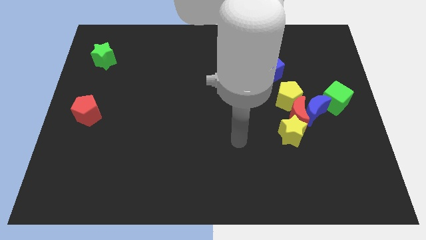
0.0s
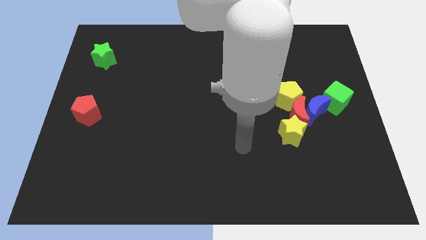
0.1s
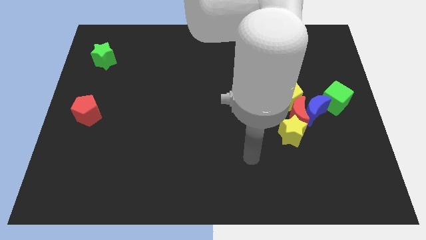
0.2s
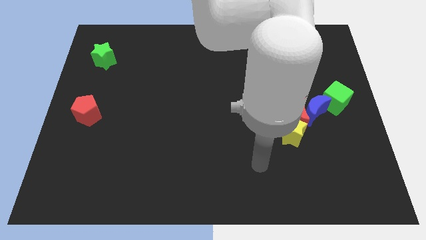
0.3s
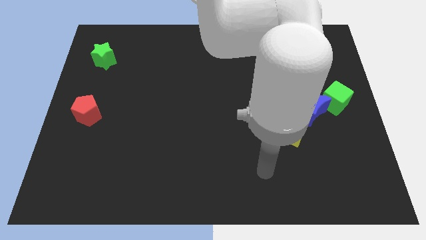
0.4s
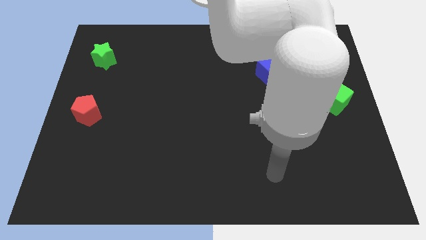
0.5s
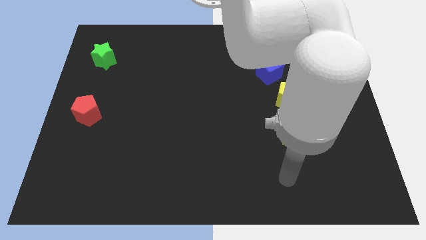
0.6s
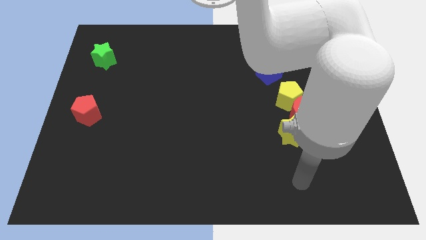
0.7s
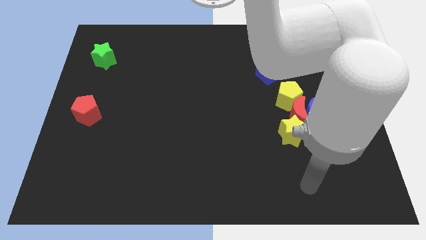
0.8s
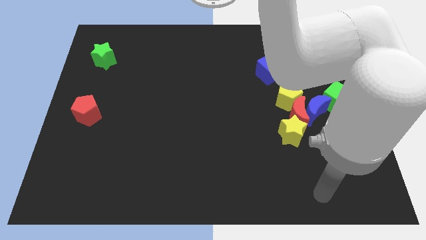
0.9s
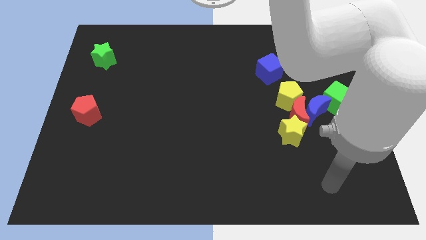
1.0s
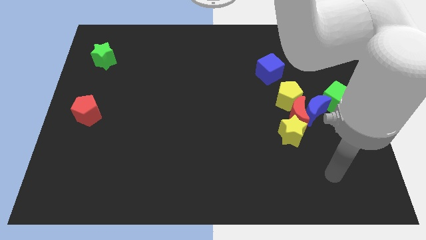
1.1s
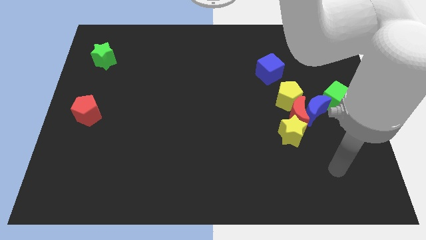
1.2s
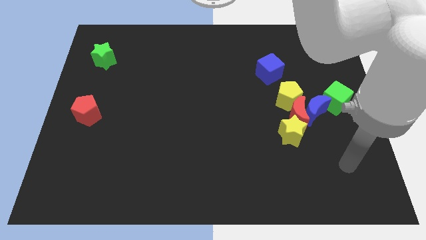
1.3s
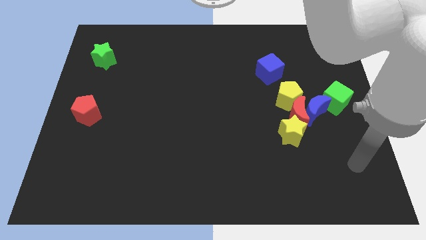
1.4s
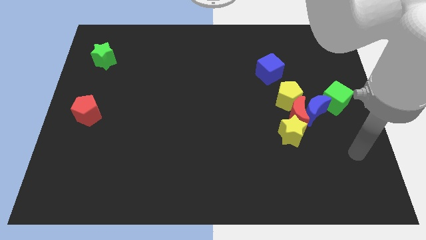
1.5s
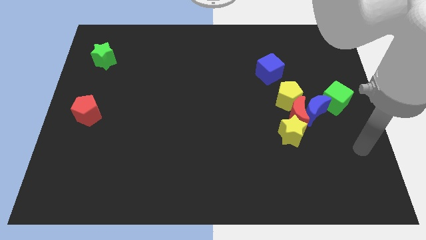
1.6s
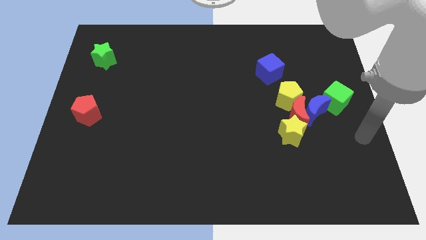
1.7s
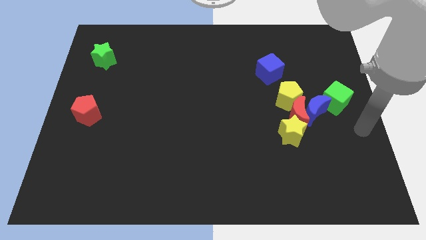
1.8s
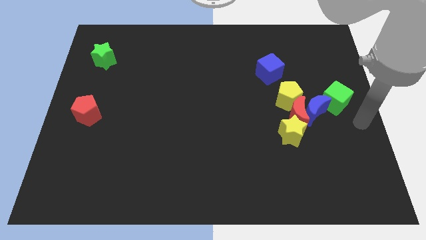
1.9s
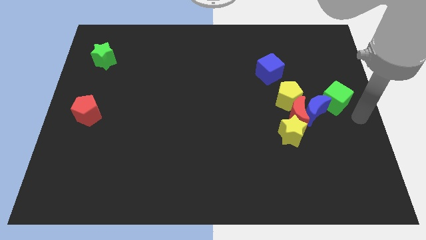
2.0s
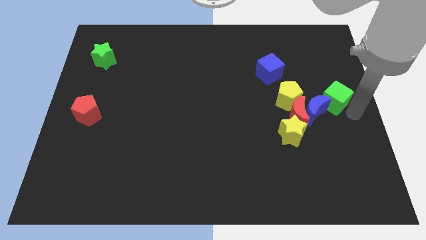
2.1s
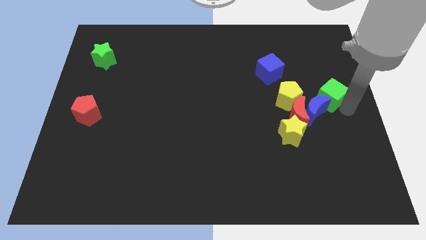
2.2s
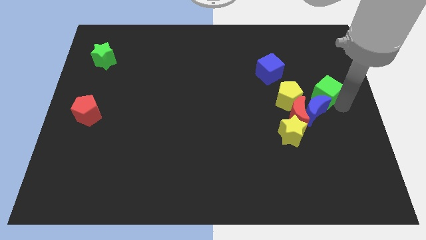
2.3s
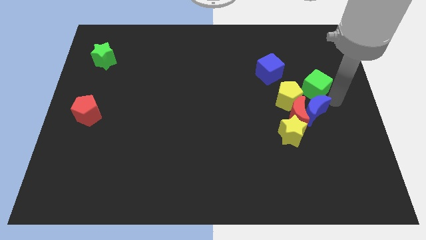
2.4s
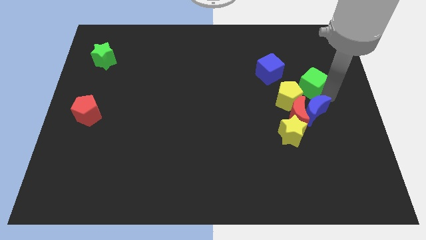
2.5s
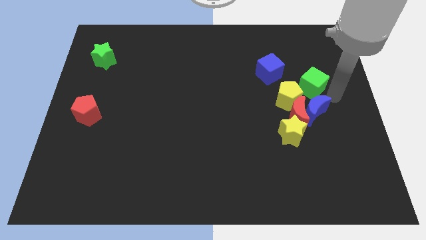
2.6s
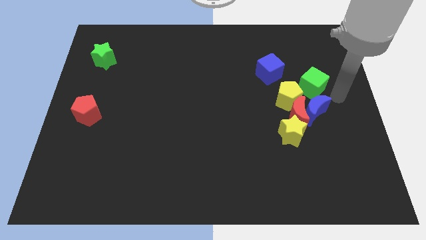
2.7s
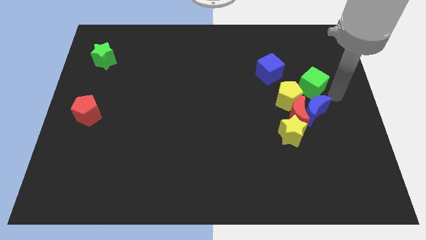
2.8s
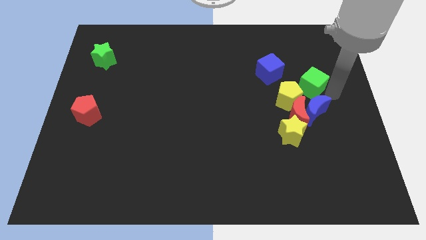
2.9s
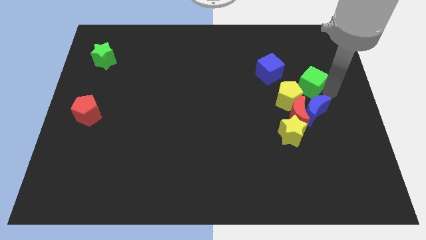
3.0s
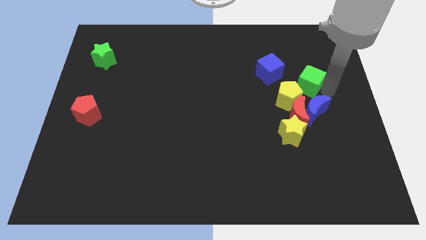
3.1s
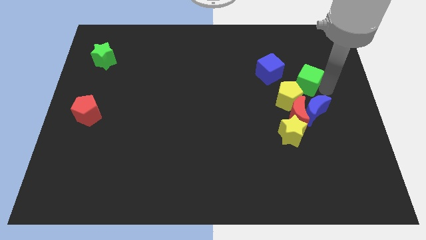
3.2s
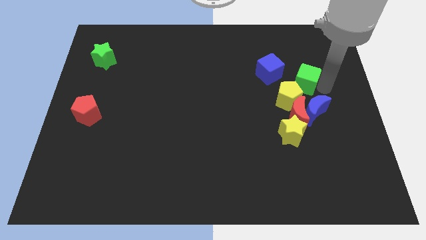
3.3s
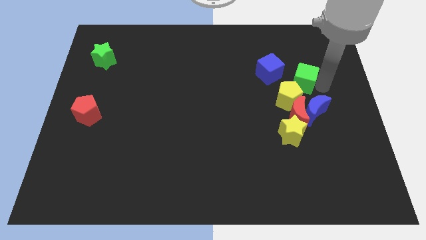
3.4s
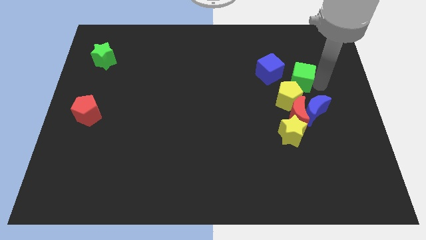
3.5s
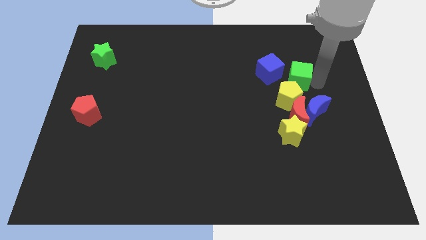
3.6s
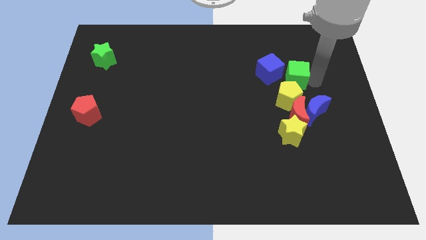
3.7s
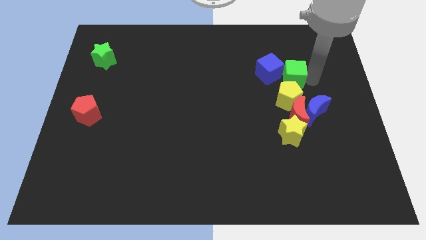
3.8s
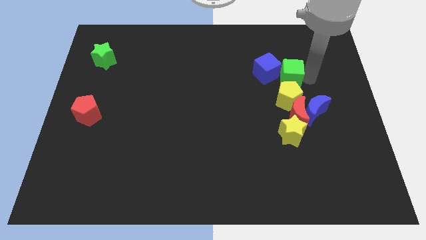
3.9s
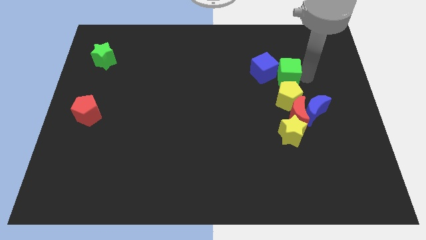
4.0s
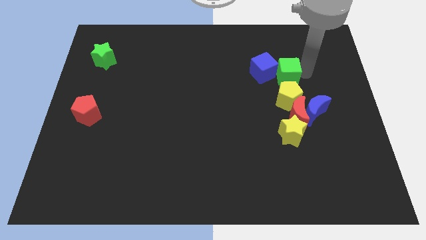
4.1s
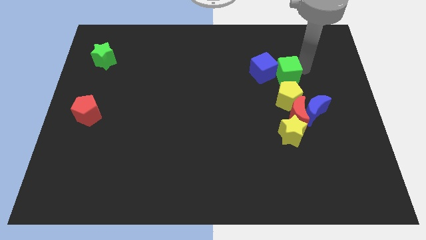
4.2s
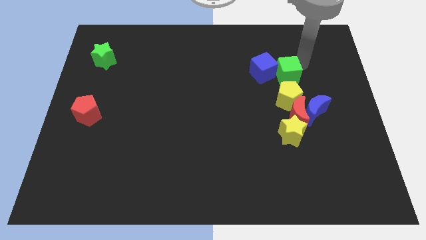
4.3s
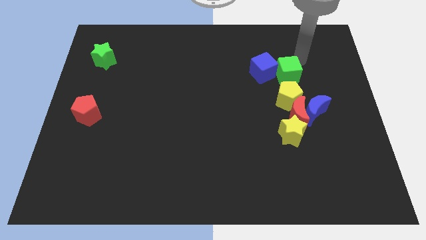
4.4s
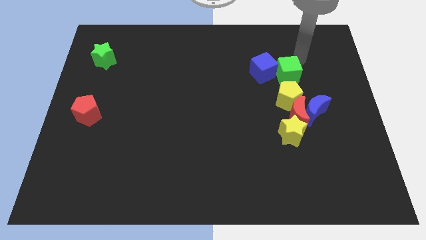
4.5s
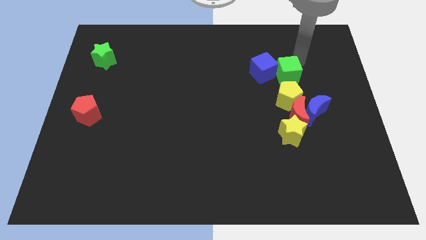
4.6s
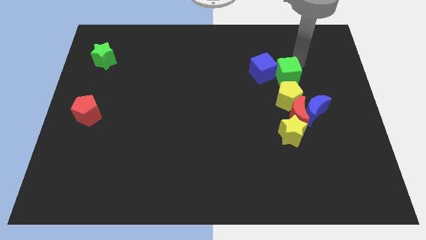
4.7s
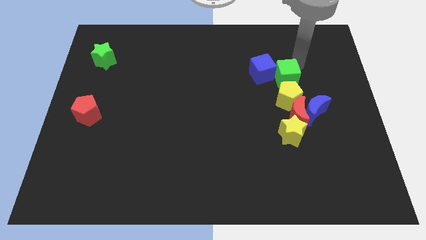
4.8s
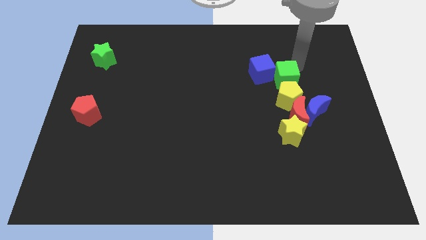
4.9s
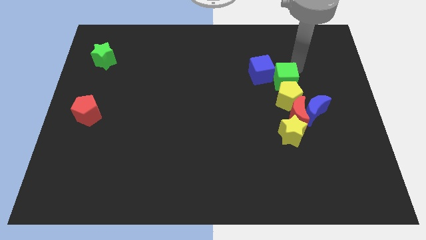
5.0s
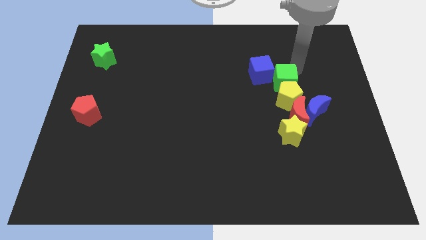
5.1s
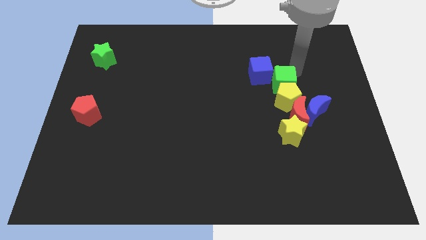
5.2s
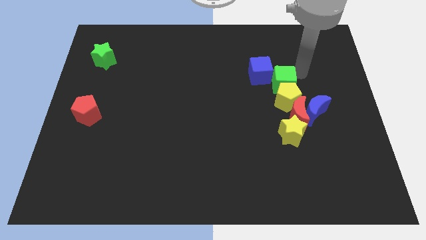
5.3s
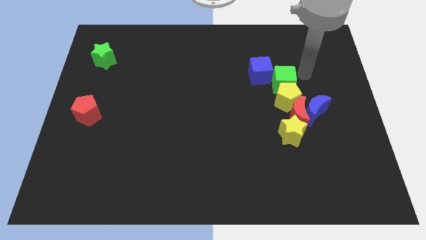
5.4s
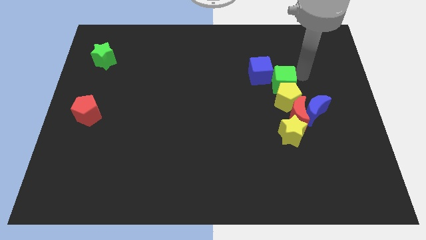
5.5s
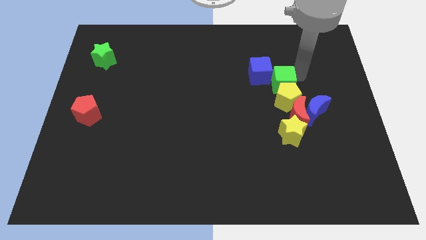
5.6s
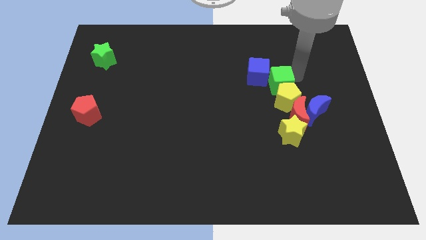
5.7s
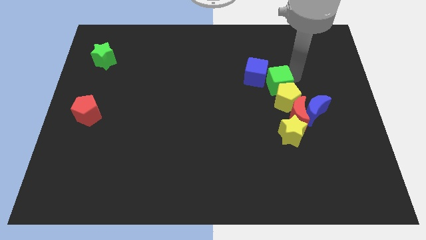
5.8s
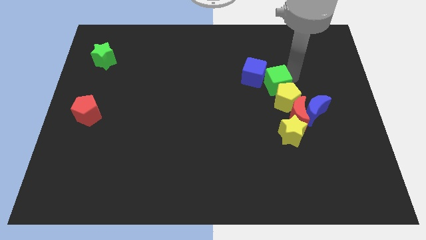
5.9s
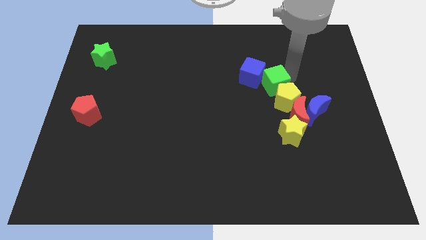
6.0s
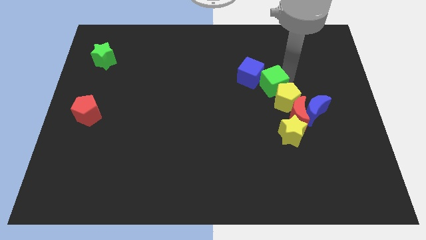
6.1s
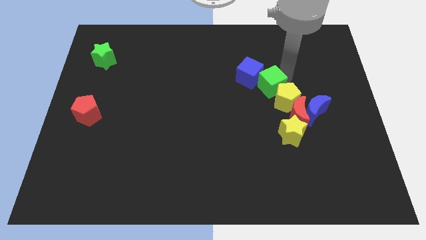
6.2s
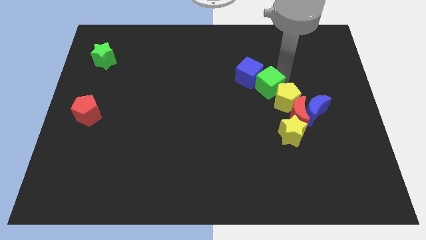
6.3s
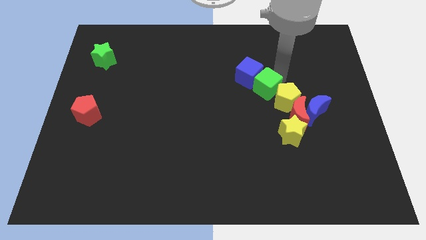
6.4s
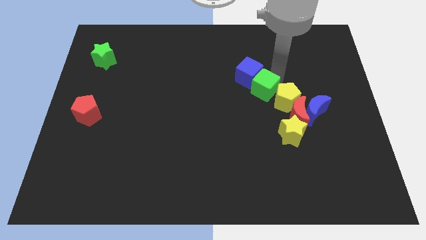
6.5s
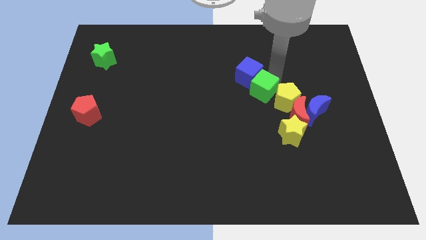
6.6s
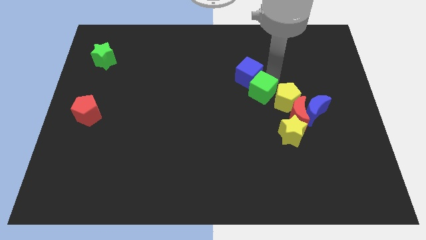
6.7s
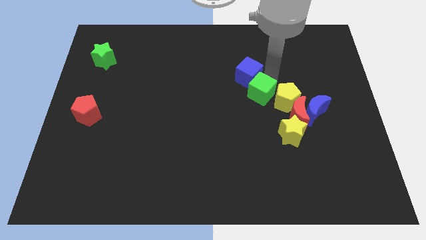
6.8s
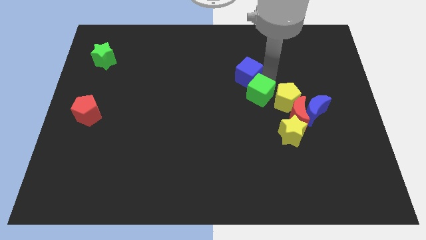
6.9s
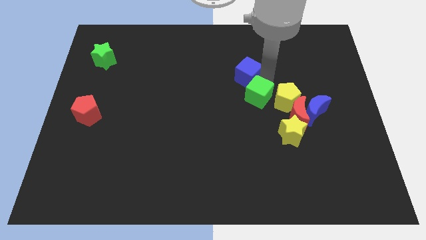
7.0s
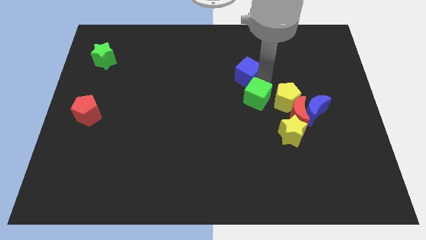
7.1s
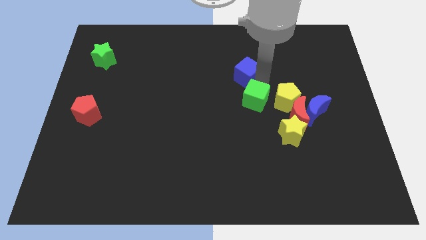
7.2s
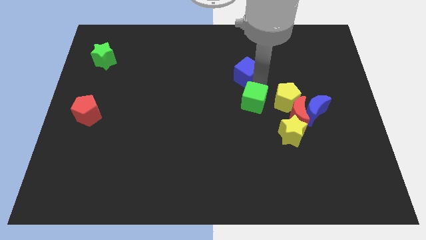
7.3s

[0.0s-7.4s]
slide the green cube to the left side of the red moon
